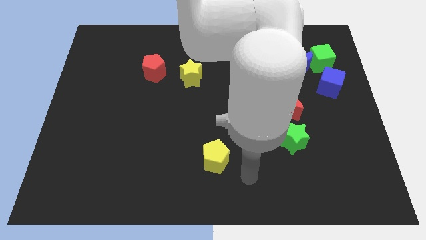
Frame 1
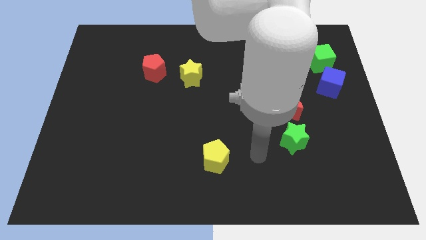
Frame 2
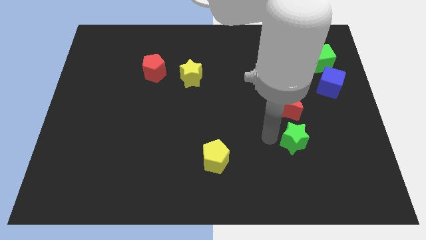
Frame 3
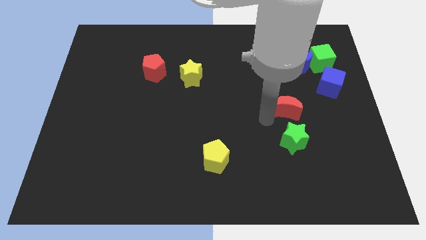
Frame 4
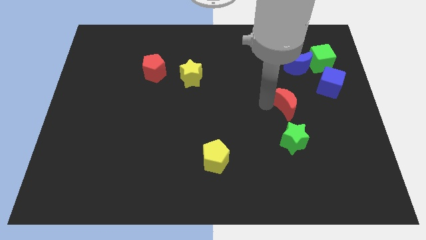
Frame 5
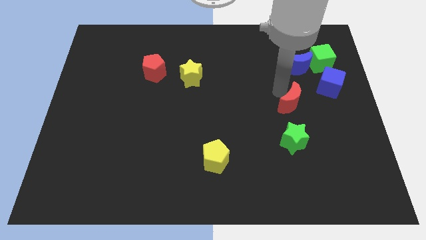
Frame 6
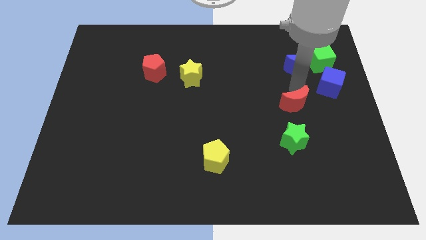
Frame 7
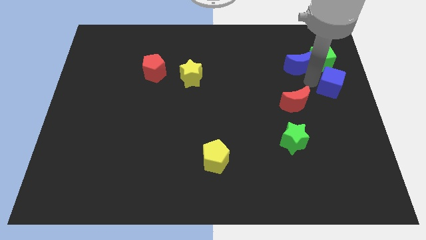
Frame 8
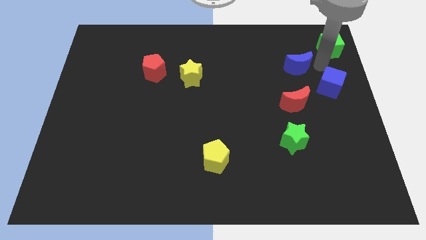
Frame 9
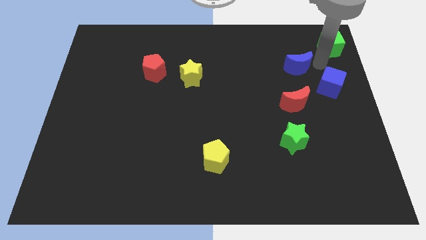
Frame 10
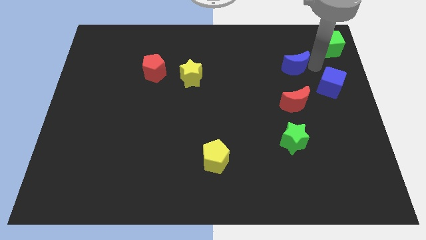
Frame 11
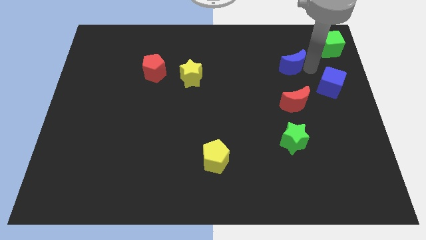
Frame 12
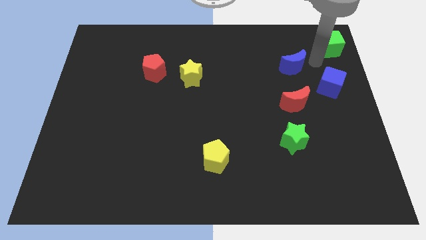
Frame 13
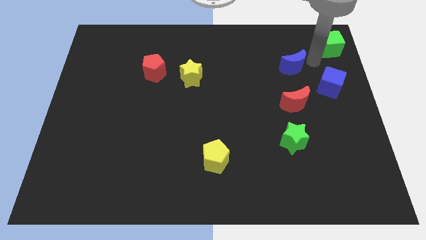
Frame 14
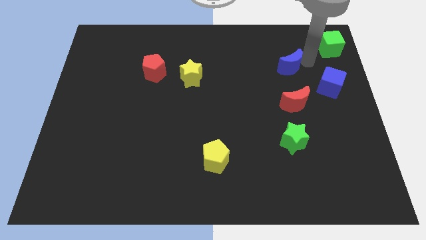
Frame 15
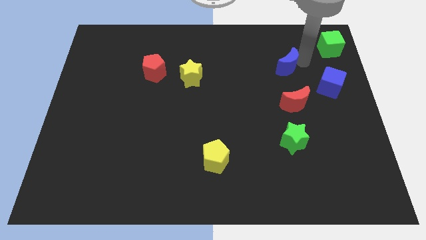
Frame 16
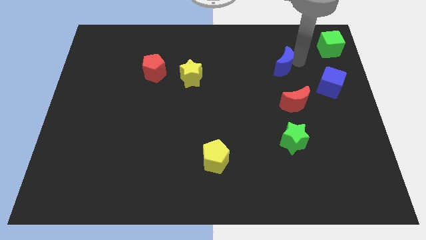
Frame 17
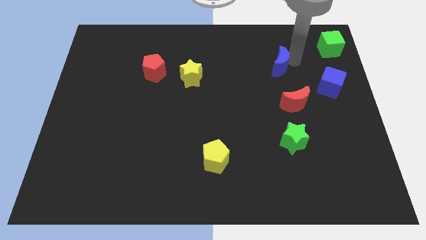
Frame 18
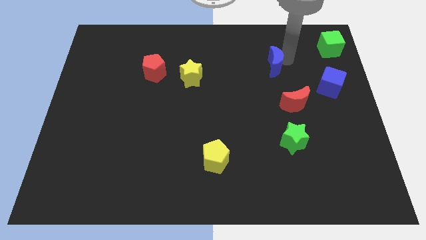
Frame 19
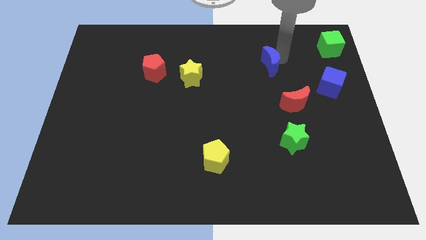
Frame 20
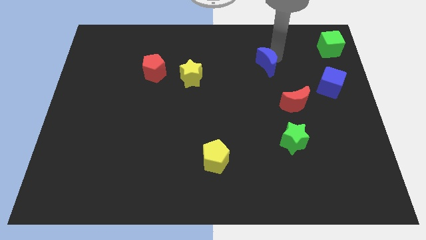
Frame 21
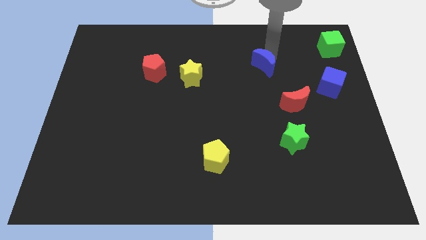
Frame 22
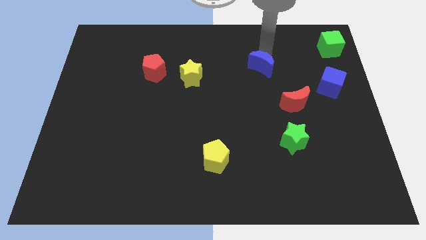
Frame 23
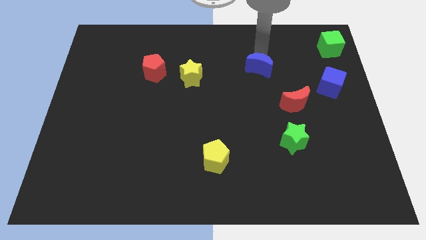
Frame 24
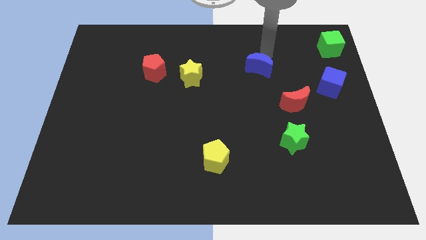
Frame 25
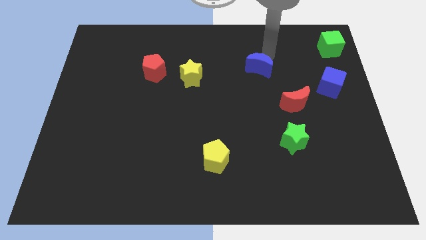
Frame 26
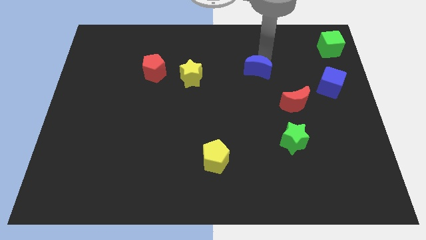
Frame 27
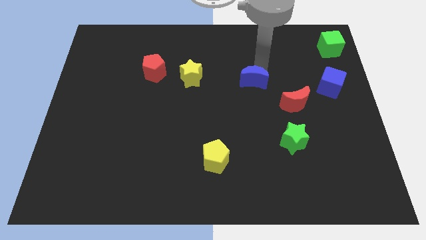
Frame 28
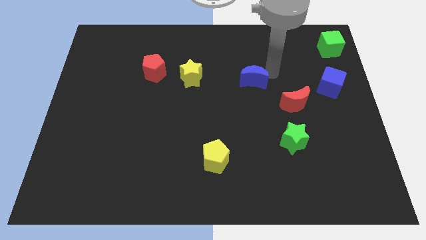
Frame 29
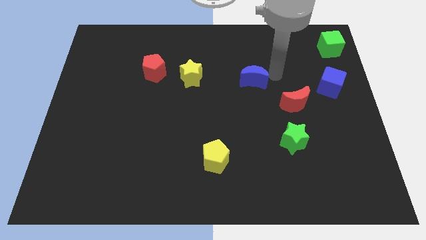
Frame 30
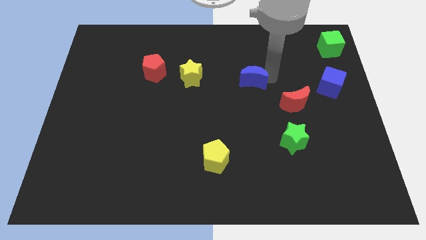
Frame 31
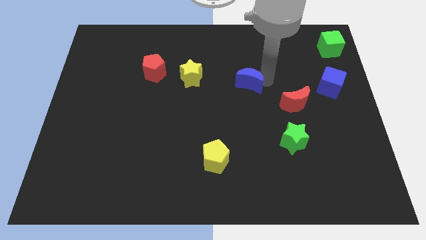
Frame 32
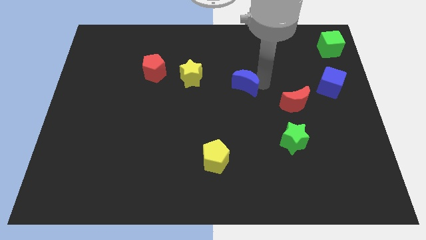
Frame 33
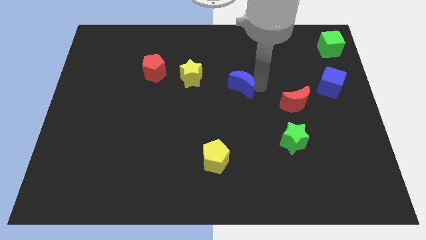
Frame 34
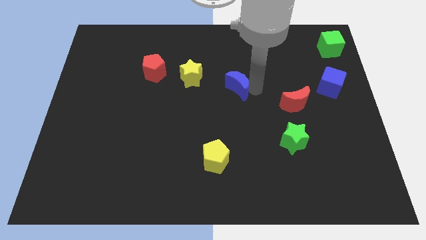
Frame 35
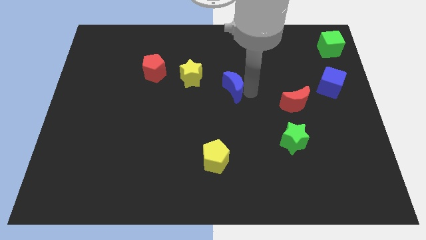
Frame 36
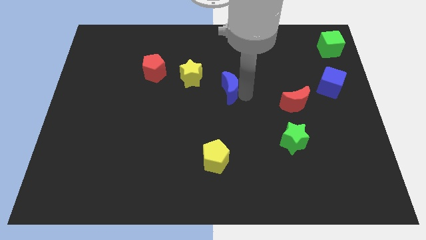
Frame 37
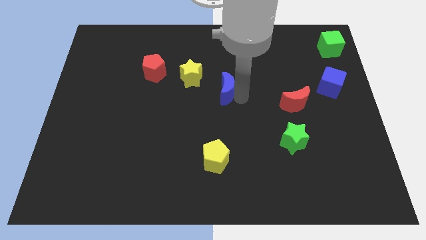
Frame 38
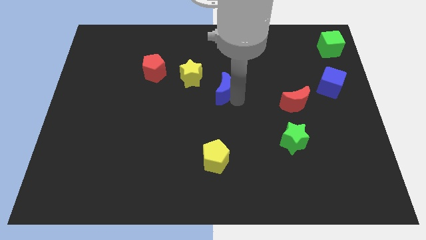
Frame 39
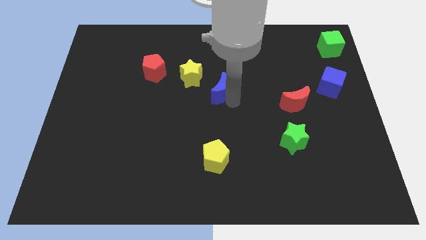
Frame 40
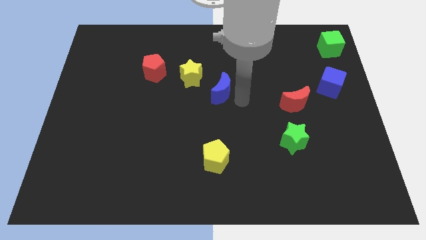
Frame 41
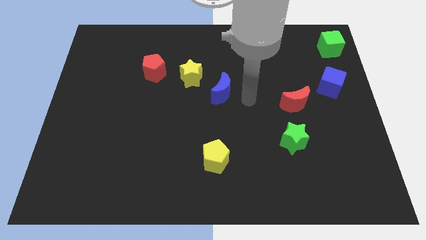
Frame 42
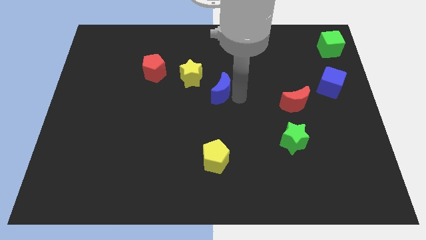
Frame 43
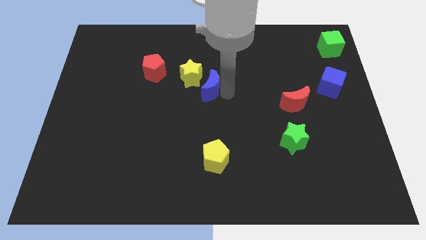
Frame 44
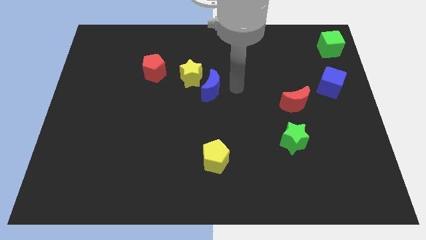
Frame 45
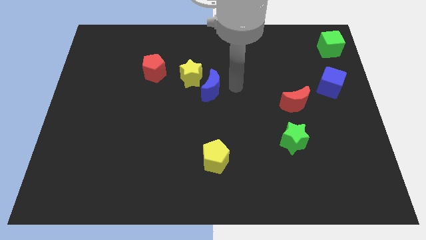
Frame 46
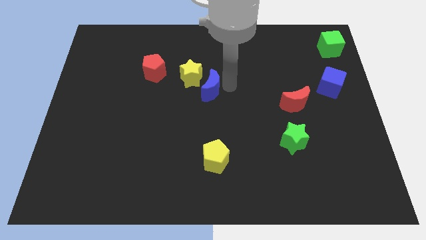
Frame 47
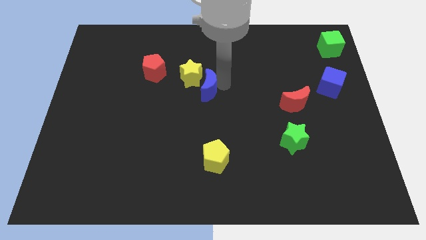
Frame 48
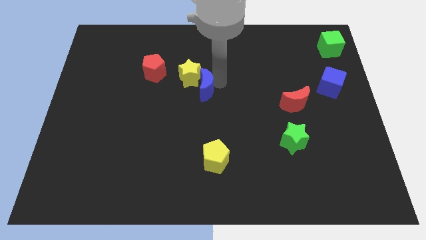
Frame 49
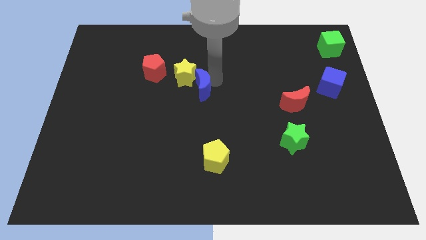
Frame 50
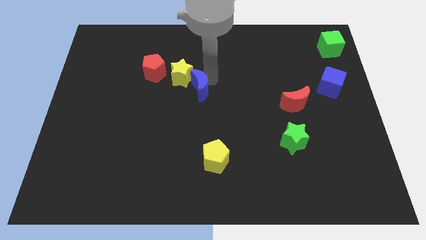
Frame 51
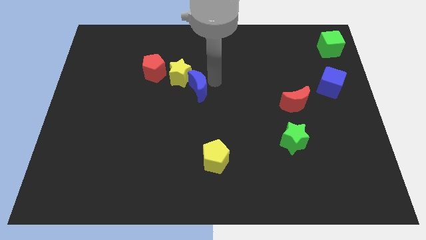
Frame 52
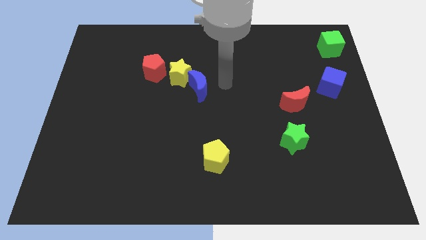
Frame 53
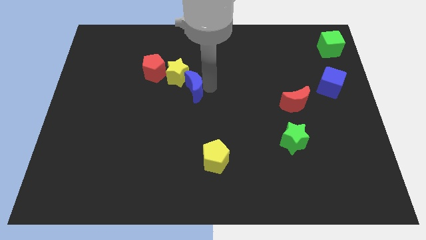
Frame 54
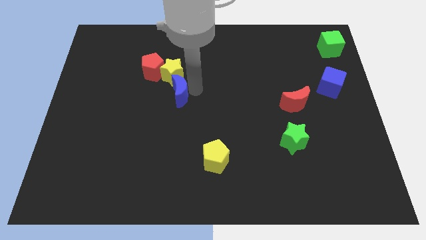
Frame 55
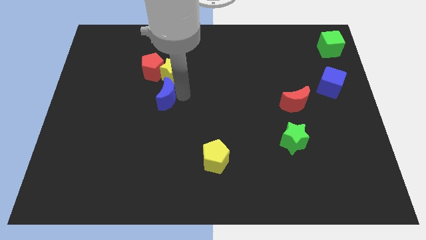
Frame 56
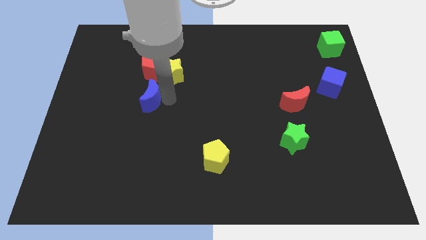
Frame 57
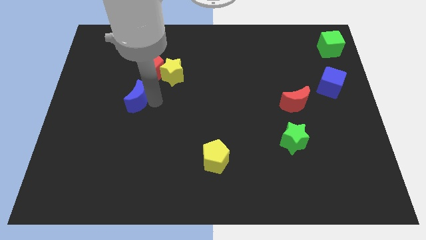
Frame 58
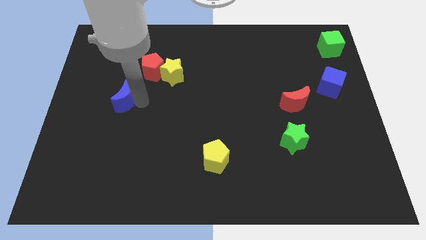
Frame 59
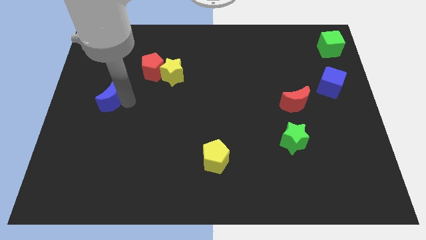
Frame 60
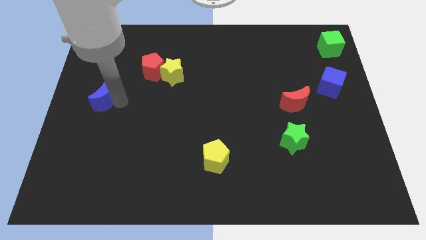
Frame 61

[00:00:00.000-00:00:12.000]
put the blue moon to the left side

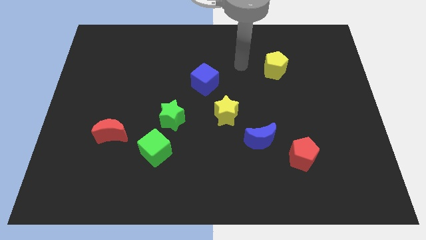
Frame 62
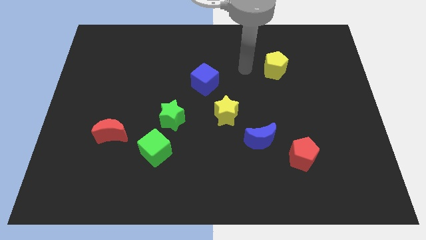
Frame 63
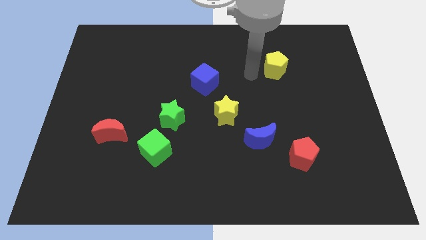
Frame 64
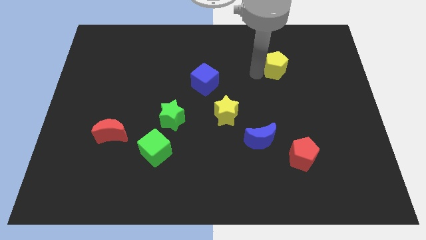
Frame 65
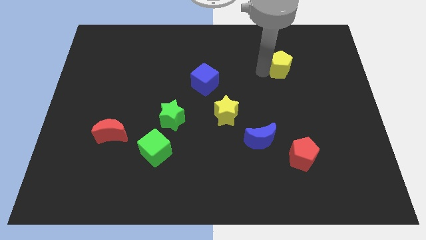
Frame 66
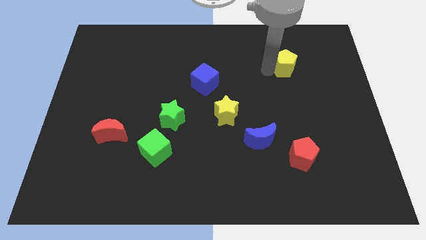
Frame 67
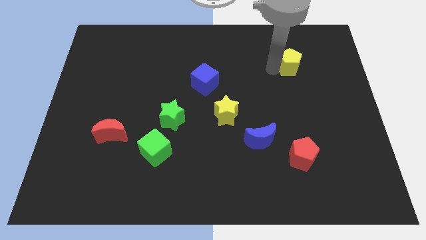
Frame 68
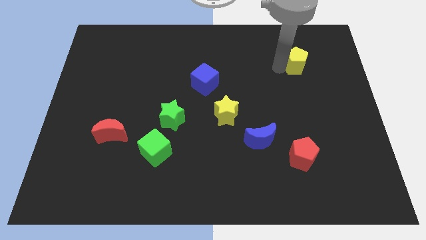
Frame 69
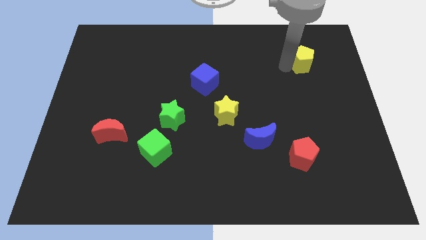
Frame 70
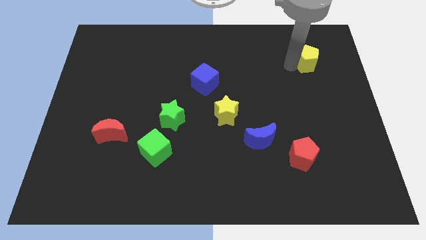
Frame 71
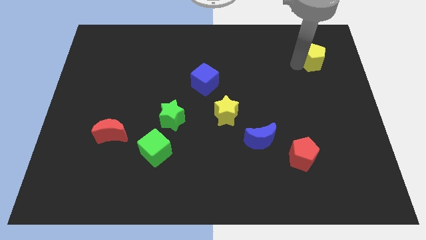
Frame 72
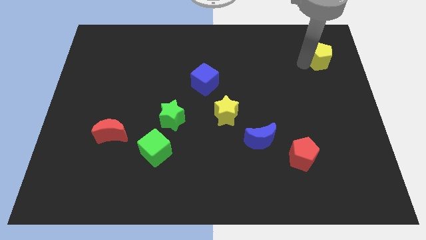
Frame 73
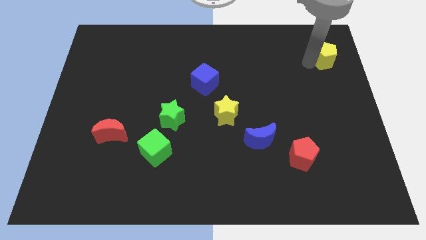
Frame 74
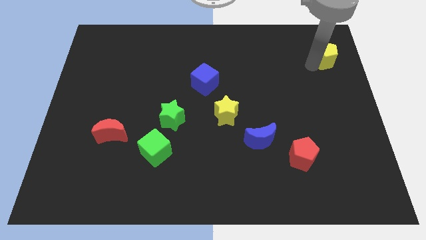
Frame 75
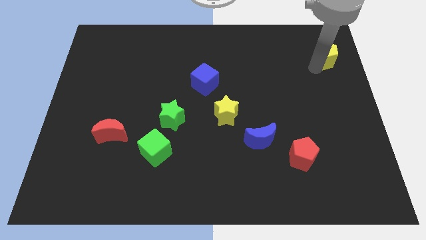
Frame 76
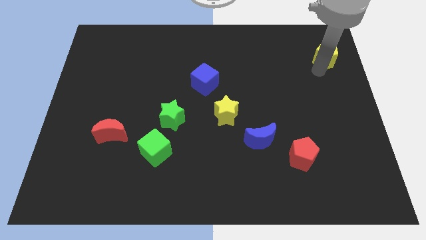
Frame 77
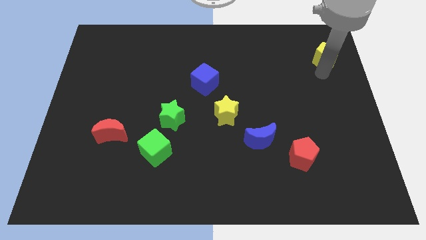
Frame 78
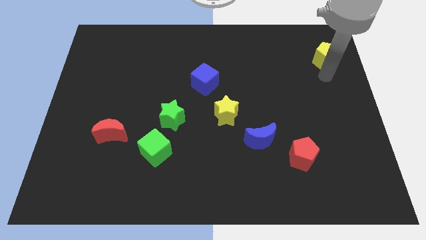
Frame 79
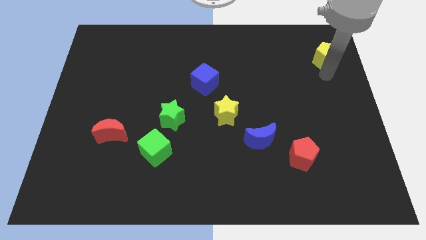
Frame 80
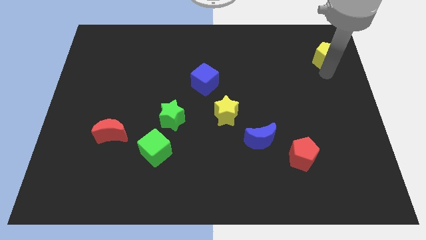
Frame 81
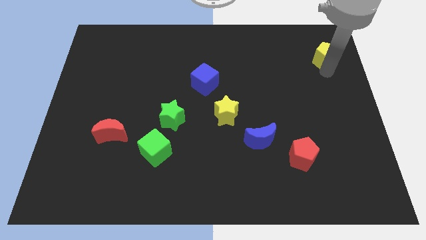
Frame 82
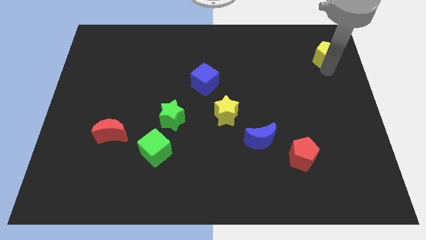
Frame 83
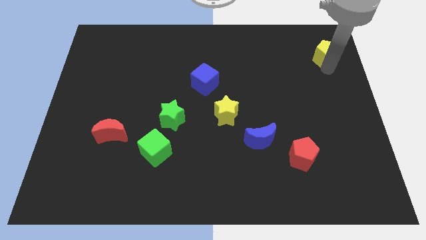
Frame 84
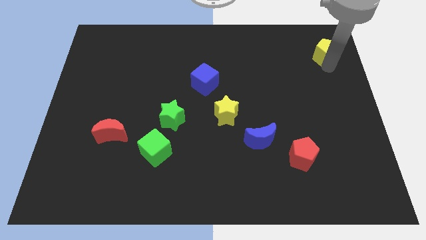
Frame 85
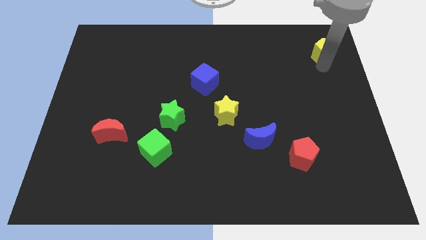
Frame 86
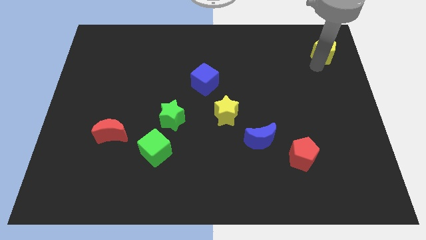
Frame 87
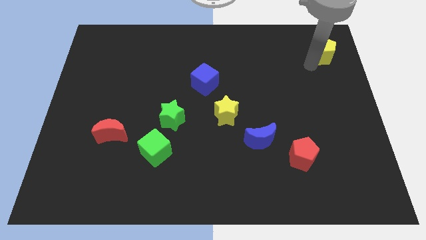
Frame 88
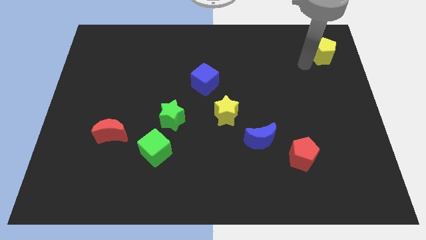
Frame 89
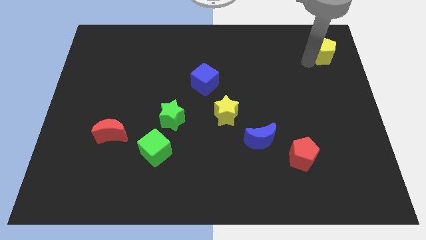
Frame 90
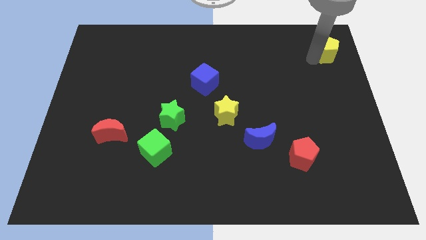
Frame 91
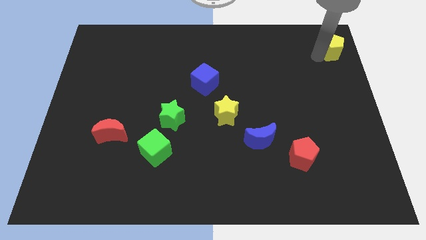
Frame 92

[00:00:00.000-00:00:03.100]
move the yellow pentagon to the top right corner
